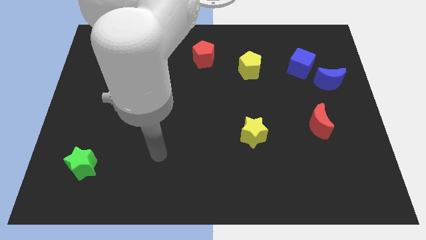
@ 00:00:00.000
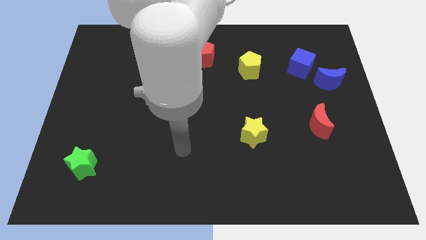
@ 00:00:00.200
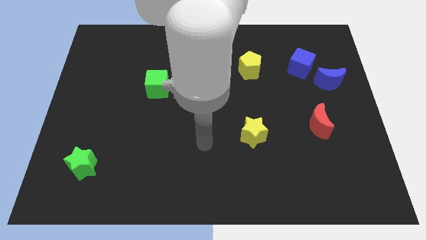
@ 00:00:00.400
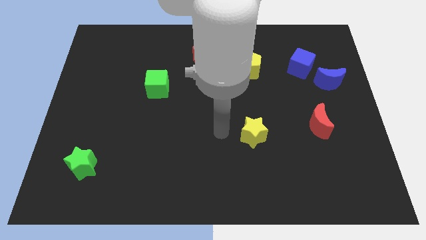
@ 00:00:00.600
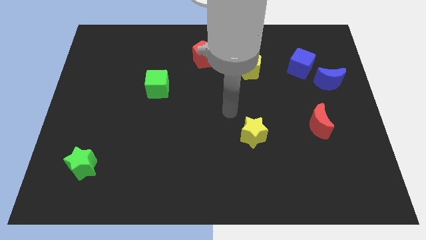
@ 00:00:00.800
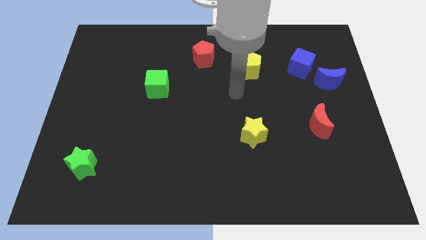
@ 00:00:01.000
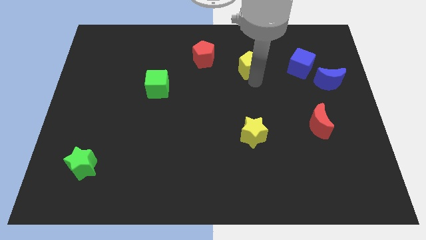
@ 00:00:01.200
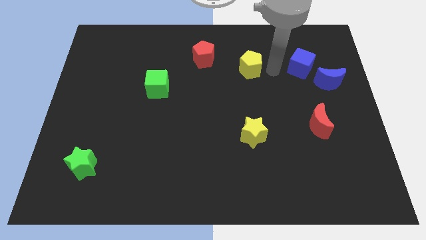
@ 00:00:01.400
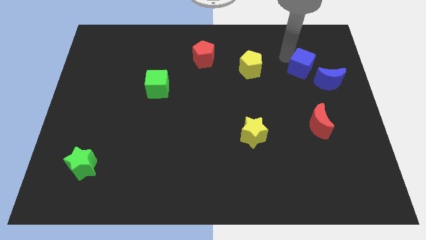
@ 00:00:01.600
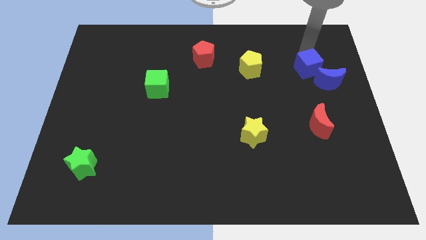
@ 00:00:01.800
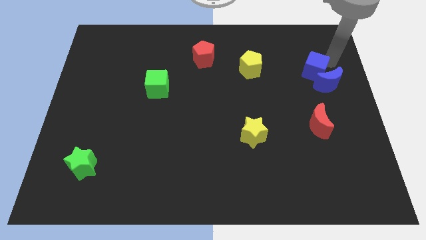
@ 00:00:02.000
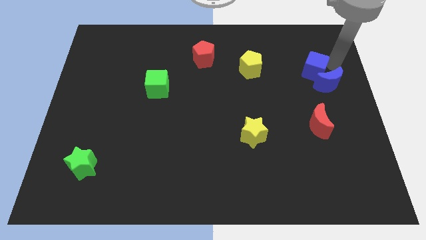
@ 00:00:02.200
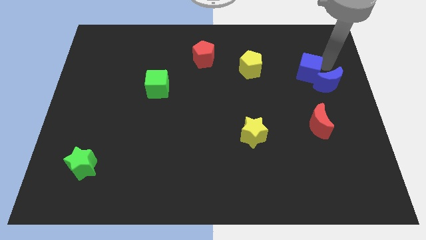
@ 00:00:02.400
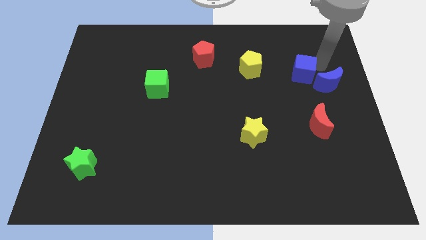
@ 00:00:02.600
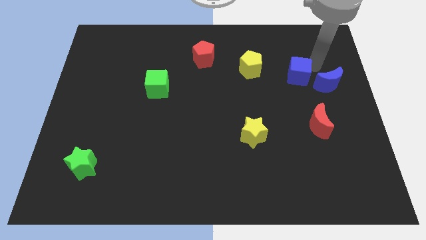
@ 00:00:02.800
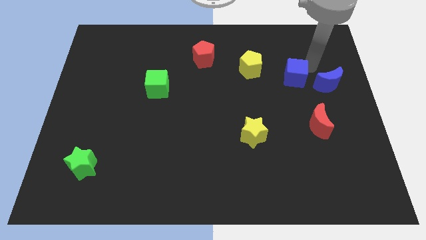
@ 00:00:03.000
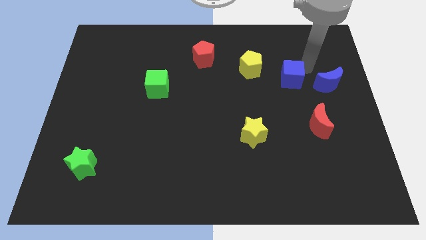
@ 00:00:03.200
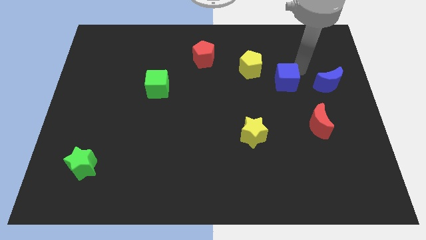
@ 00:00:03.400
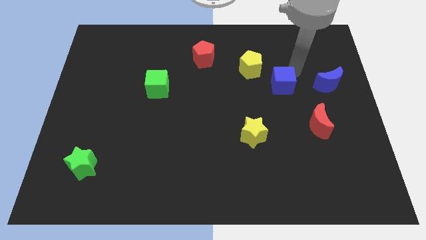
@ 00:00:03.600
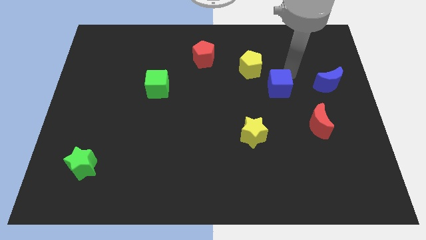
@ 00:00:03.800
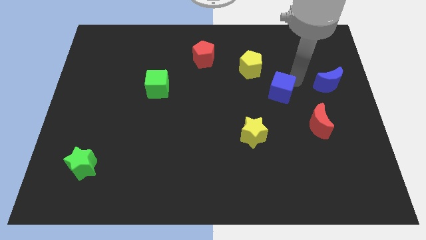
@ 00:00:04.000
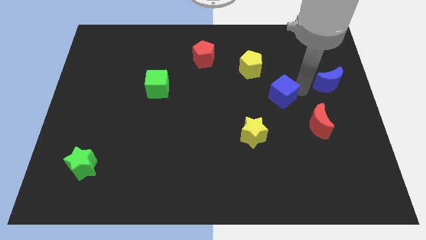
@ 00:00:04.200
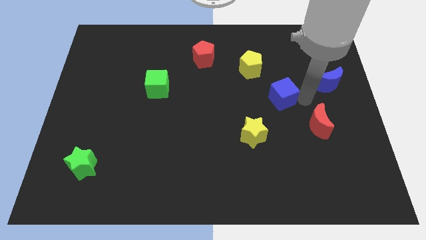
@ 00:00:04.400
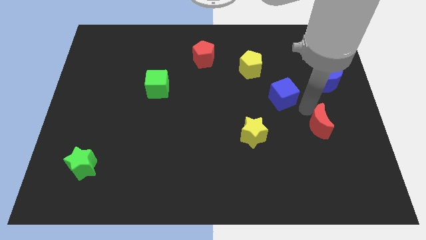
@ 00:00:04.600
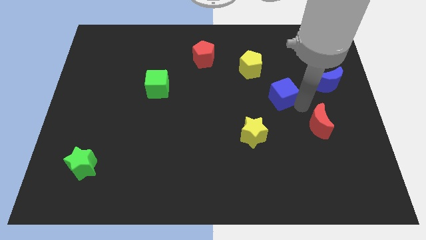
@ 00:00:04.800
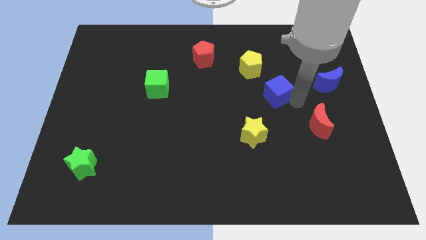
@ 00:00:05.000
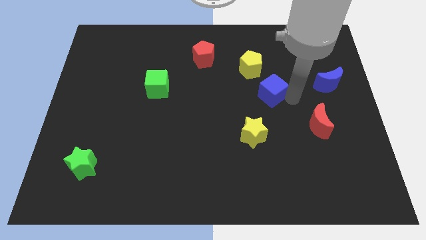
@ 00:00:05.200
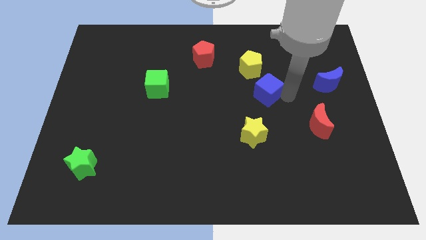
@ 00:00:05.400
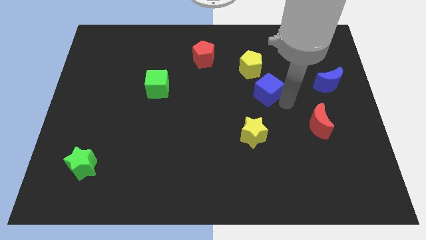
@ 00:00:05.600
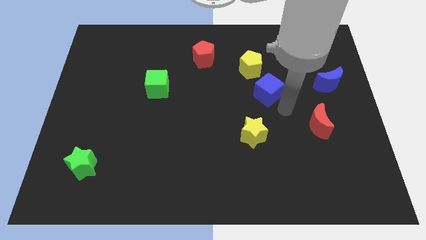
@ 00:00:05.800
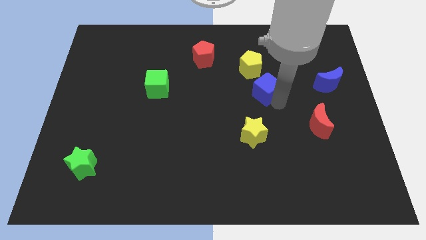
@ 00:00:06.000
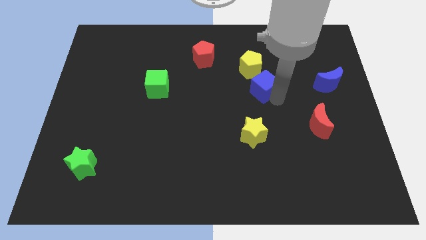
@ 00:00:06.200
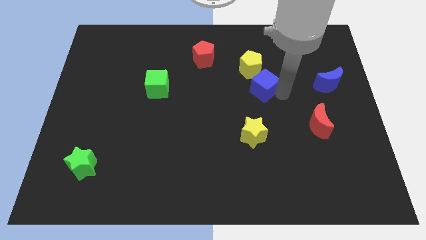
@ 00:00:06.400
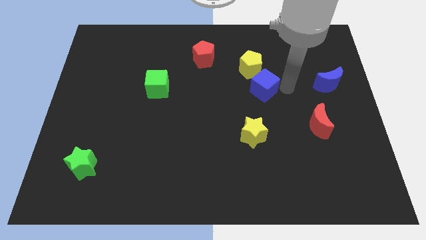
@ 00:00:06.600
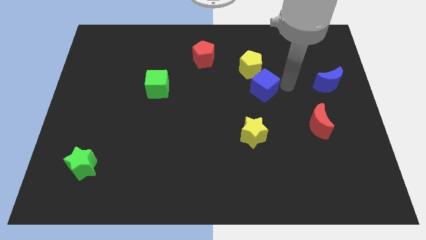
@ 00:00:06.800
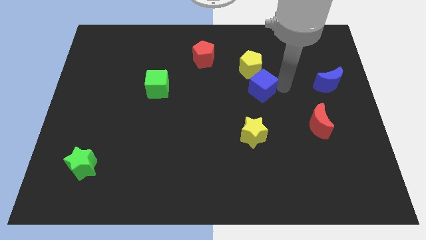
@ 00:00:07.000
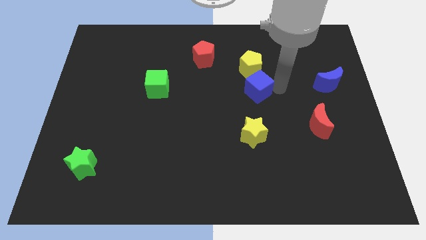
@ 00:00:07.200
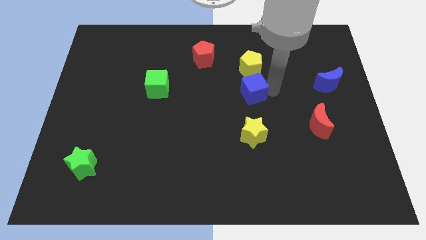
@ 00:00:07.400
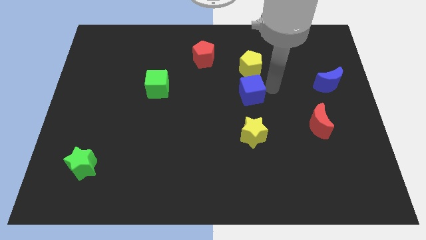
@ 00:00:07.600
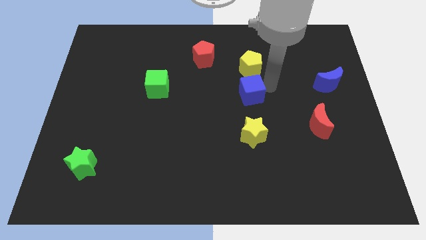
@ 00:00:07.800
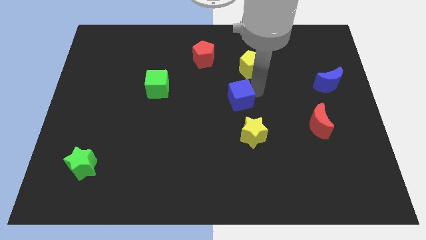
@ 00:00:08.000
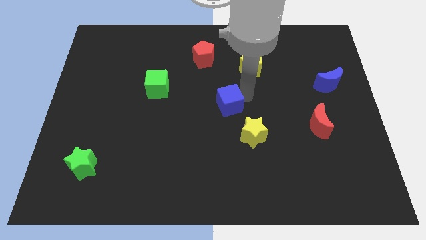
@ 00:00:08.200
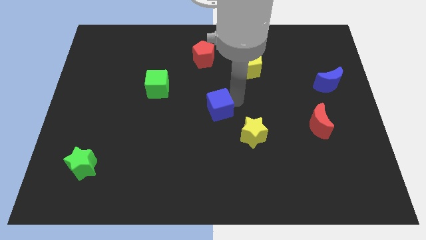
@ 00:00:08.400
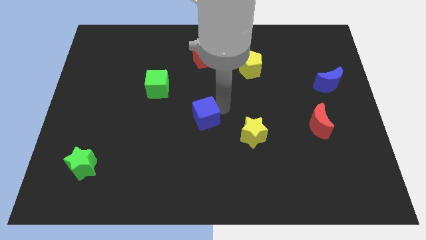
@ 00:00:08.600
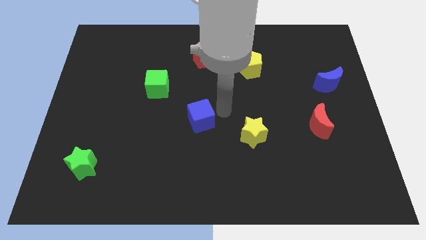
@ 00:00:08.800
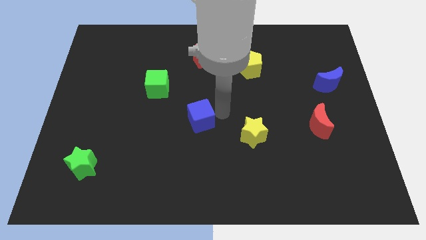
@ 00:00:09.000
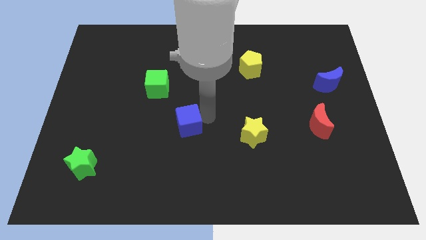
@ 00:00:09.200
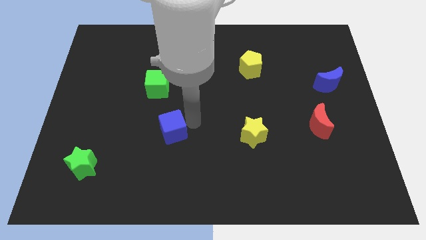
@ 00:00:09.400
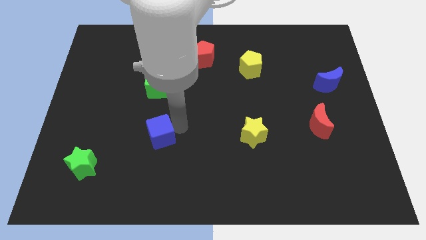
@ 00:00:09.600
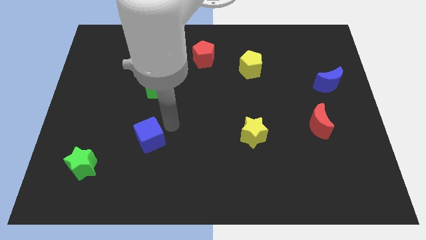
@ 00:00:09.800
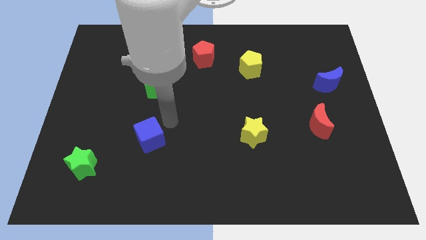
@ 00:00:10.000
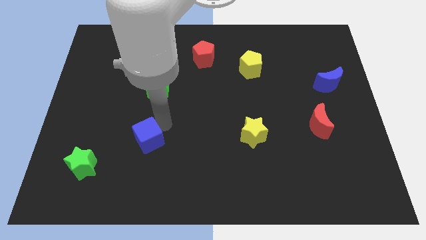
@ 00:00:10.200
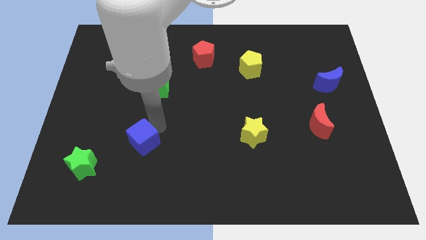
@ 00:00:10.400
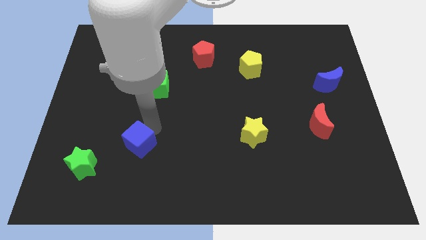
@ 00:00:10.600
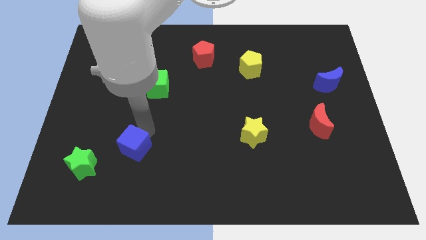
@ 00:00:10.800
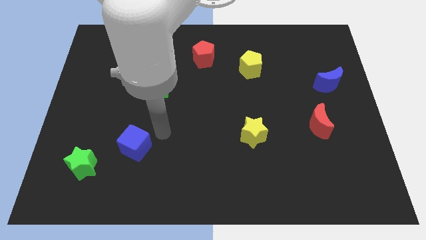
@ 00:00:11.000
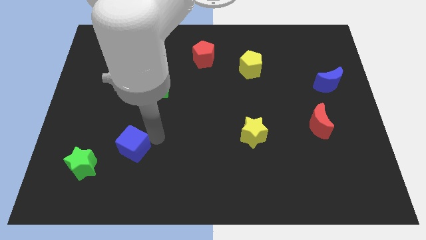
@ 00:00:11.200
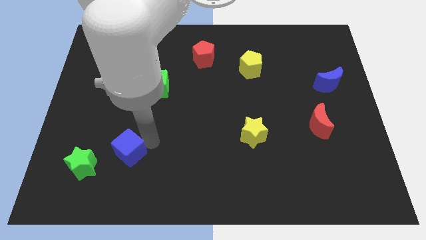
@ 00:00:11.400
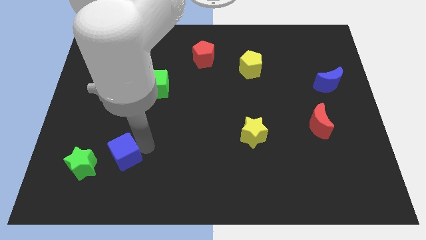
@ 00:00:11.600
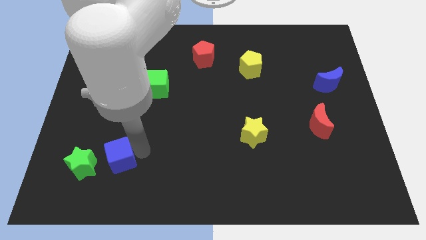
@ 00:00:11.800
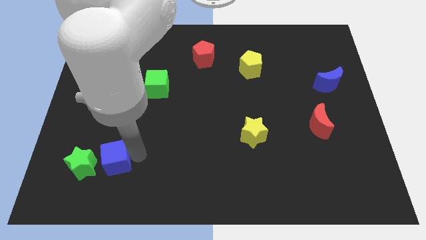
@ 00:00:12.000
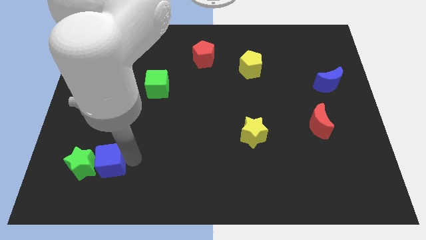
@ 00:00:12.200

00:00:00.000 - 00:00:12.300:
push the blue cube towards the green star
